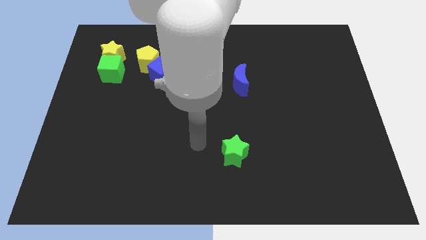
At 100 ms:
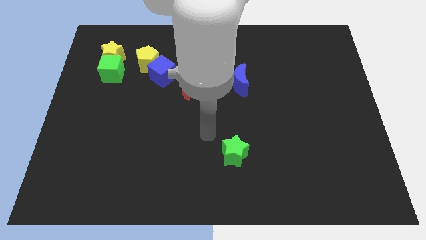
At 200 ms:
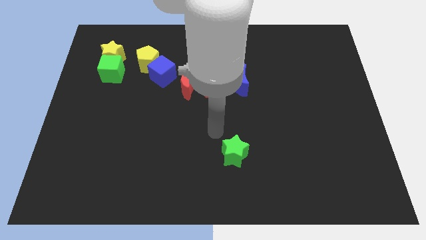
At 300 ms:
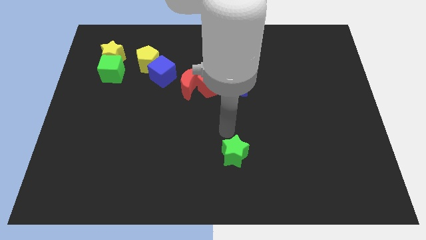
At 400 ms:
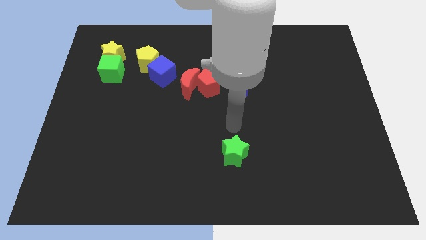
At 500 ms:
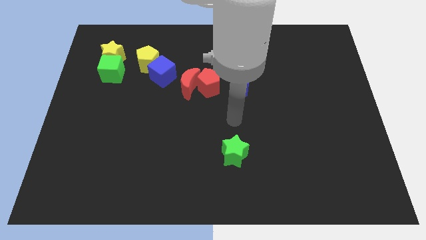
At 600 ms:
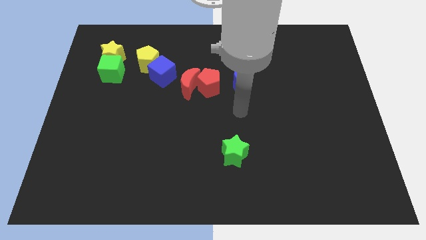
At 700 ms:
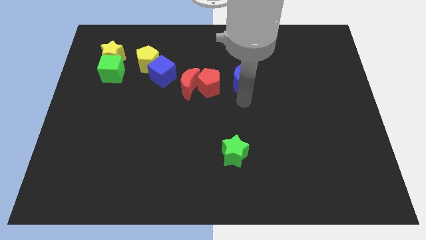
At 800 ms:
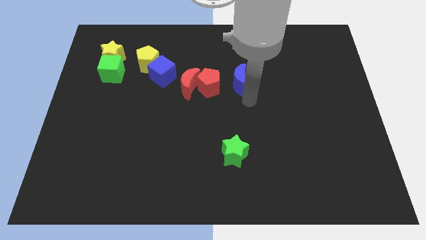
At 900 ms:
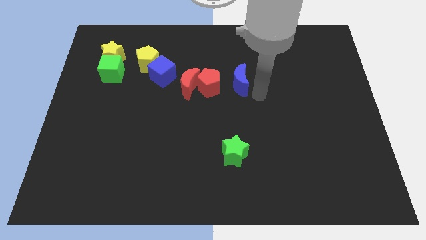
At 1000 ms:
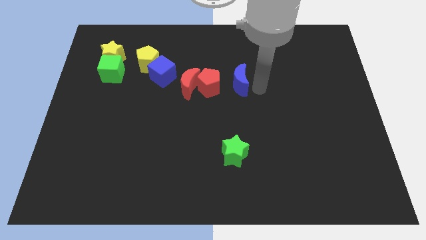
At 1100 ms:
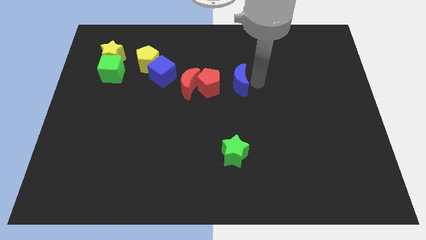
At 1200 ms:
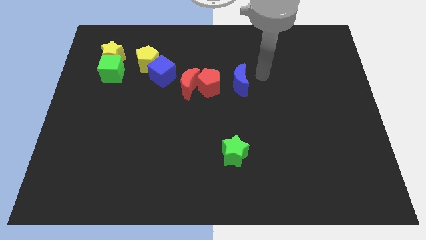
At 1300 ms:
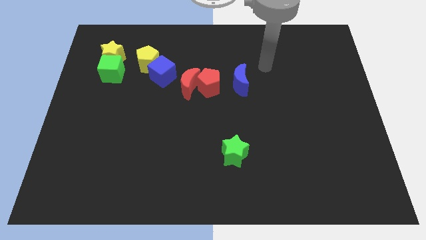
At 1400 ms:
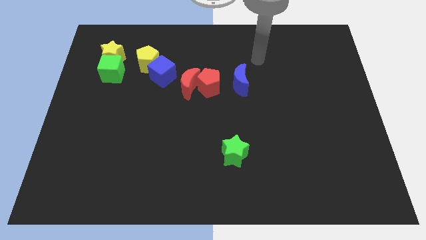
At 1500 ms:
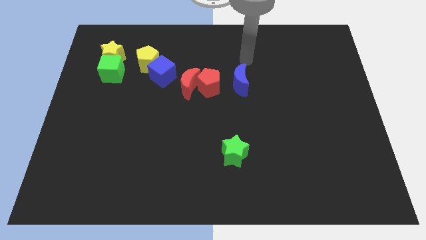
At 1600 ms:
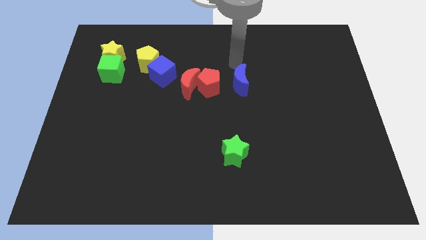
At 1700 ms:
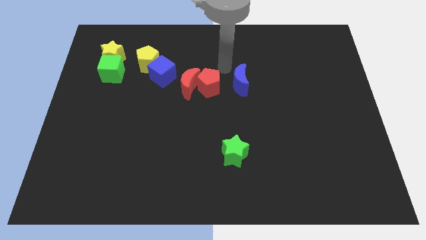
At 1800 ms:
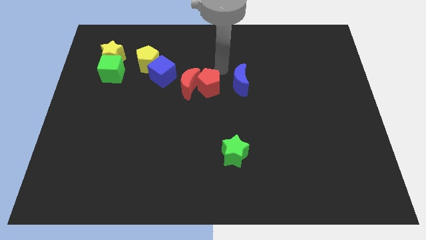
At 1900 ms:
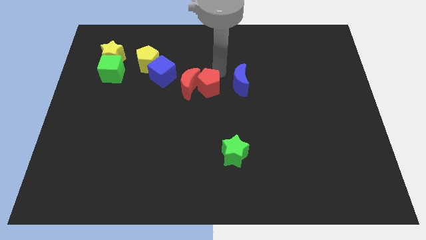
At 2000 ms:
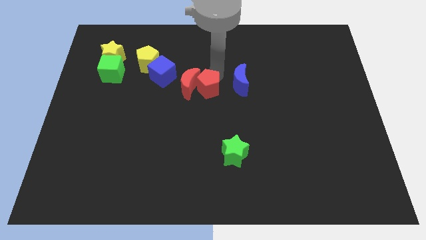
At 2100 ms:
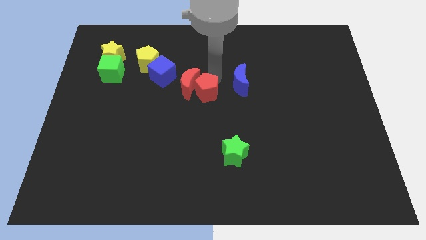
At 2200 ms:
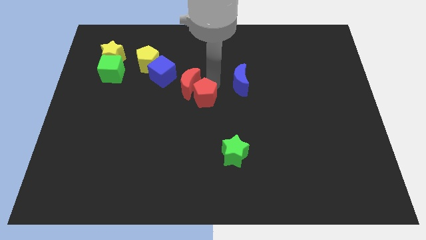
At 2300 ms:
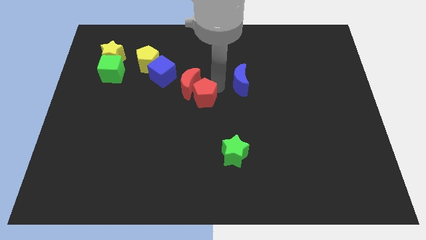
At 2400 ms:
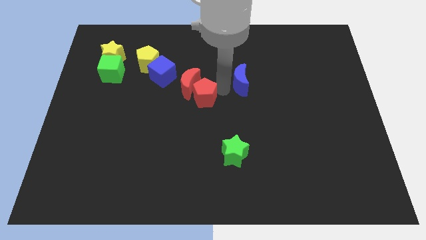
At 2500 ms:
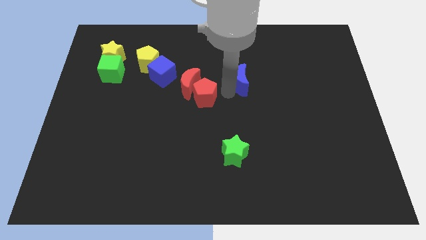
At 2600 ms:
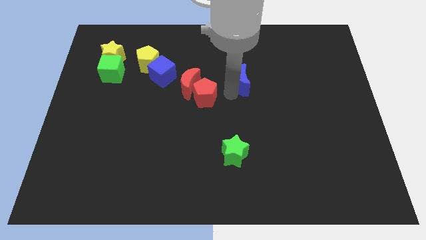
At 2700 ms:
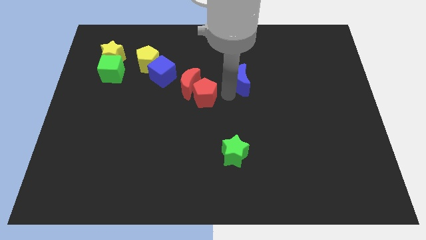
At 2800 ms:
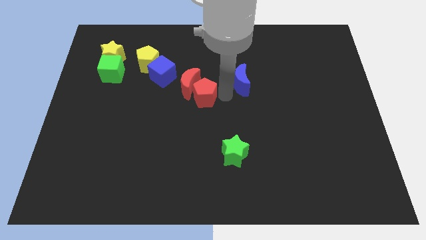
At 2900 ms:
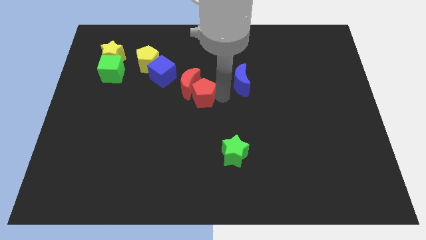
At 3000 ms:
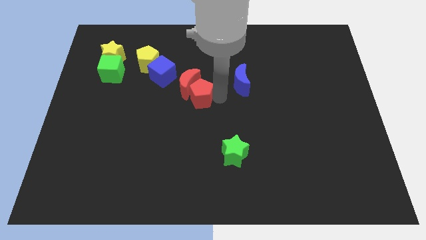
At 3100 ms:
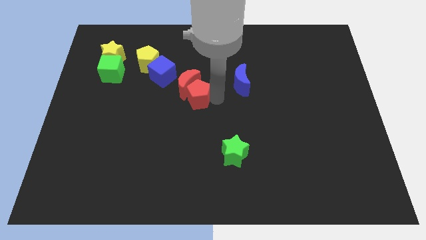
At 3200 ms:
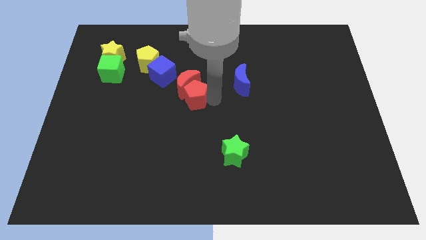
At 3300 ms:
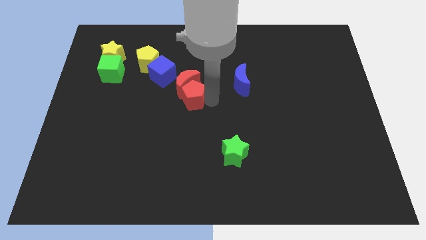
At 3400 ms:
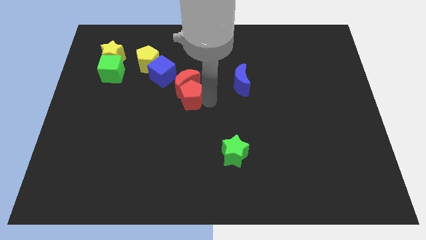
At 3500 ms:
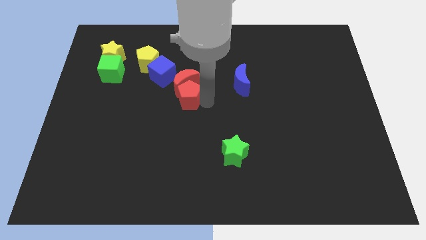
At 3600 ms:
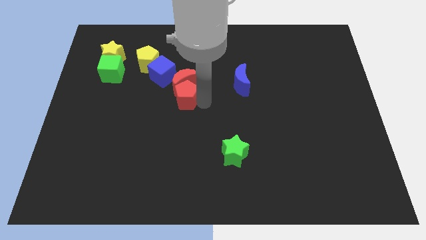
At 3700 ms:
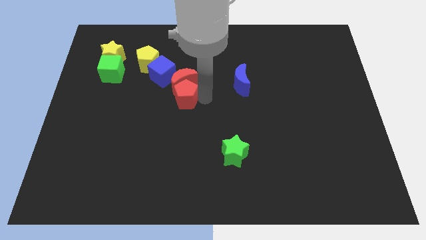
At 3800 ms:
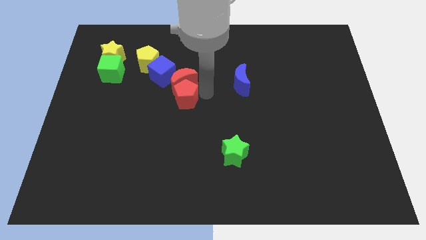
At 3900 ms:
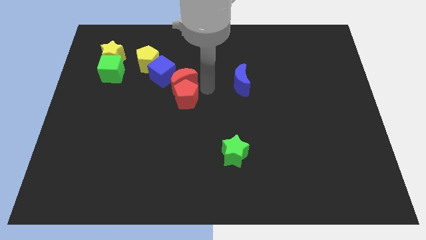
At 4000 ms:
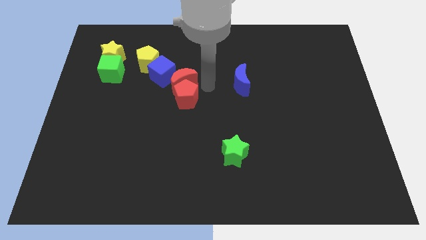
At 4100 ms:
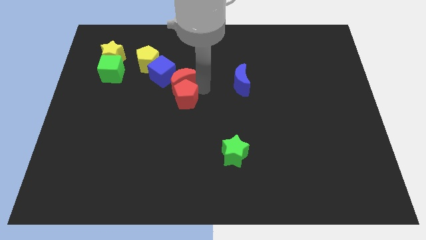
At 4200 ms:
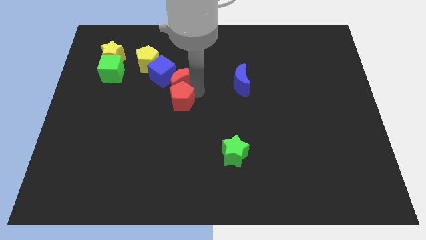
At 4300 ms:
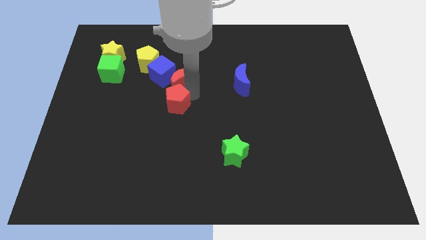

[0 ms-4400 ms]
move the red pentagon away from the red moon and blue moon

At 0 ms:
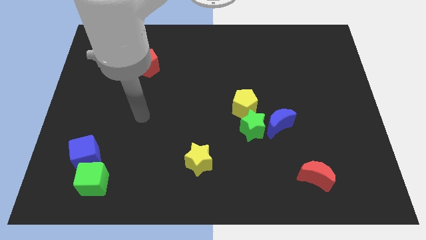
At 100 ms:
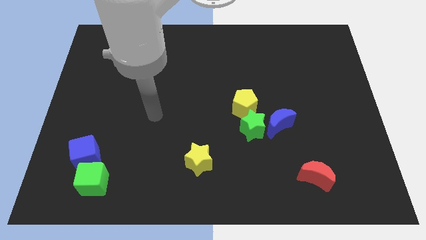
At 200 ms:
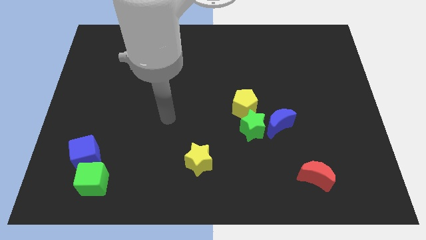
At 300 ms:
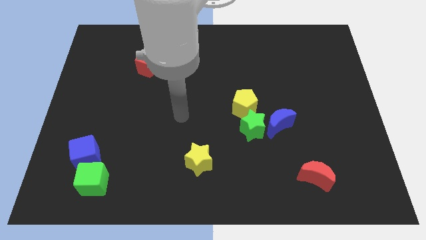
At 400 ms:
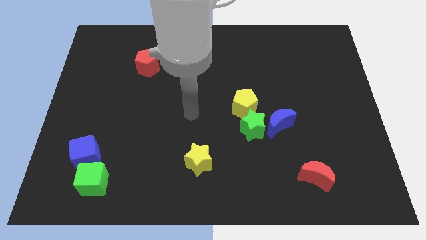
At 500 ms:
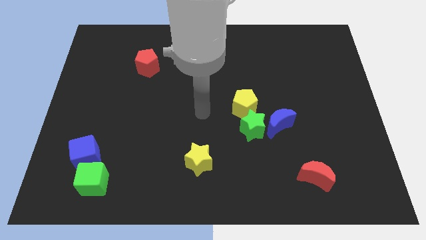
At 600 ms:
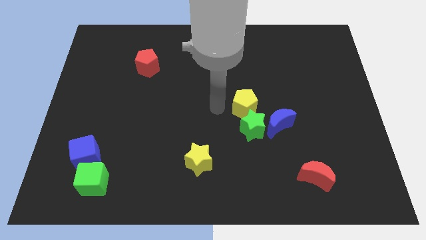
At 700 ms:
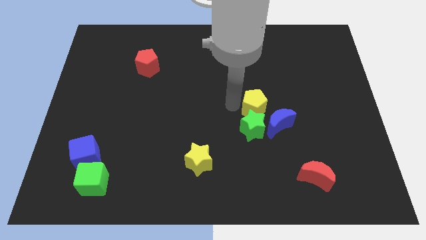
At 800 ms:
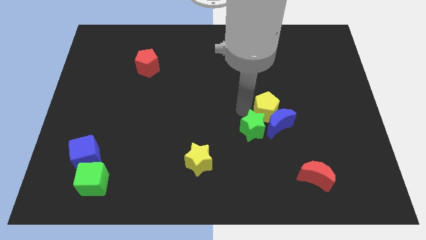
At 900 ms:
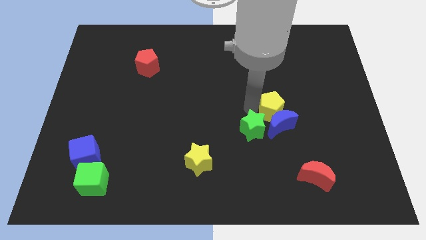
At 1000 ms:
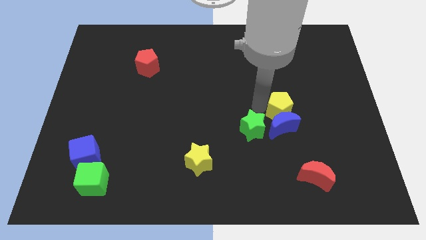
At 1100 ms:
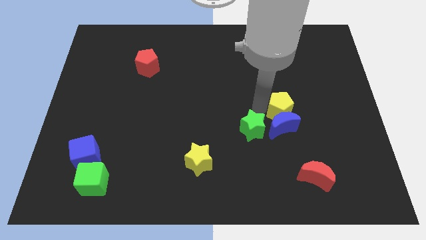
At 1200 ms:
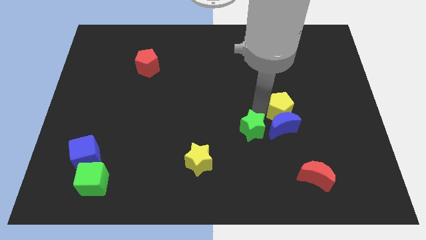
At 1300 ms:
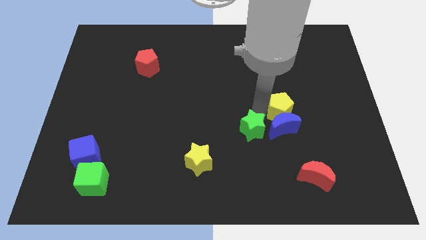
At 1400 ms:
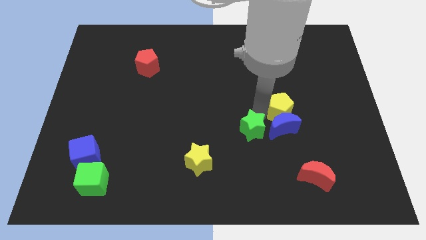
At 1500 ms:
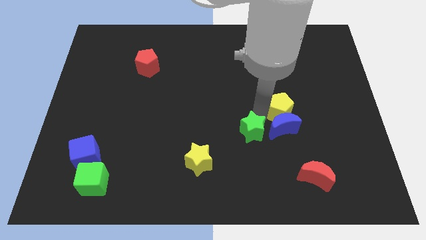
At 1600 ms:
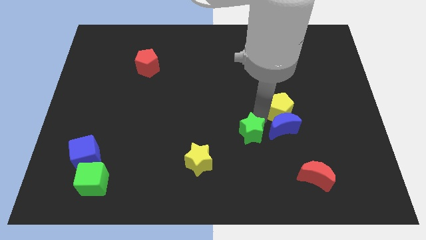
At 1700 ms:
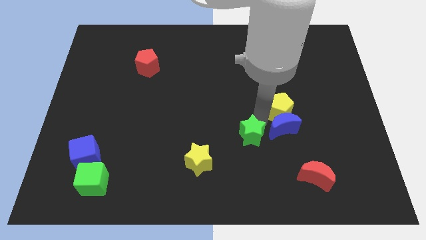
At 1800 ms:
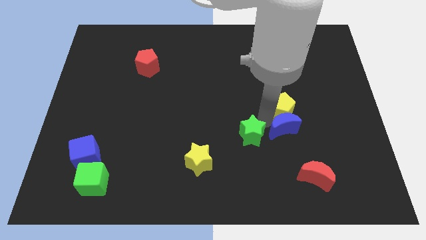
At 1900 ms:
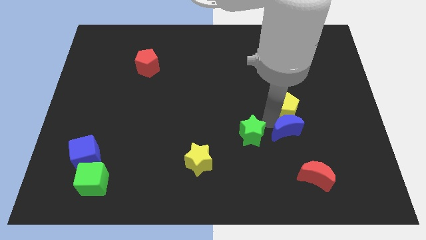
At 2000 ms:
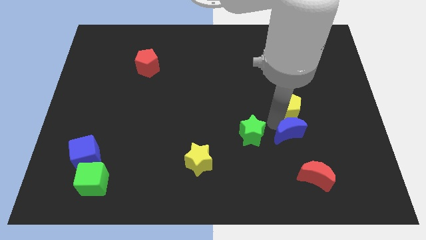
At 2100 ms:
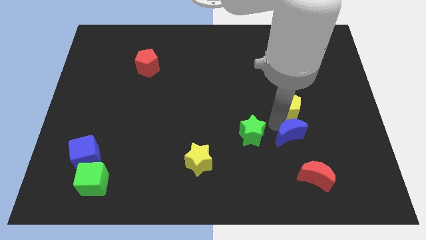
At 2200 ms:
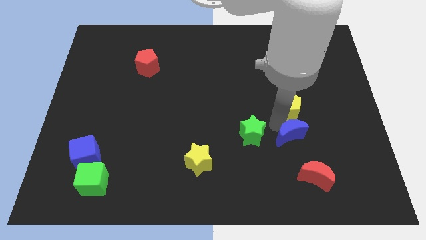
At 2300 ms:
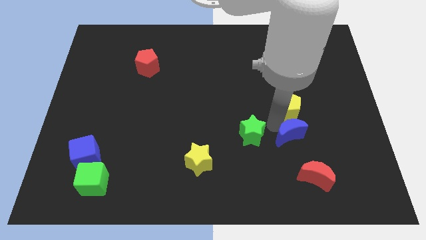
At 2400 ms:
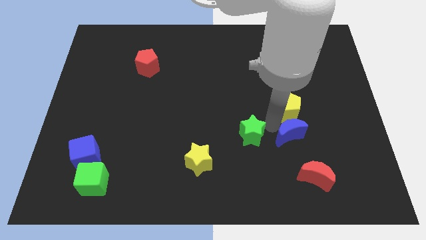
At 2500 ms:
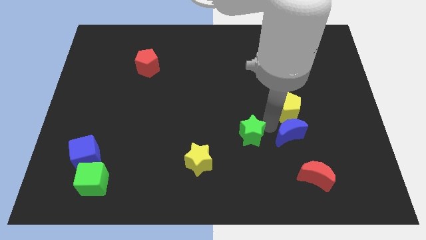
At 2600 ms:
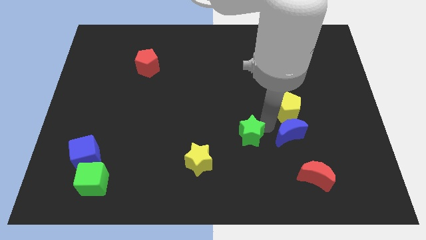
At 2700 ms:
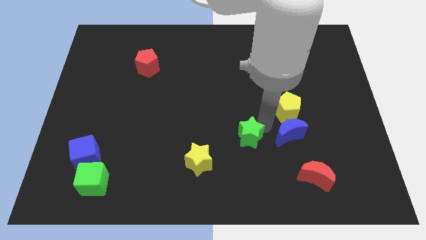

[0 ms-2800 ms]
separate the green star from the yellow pentagon and blue moon

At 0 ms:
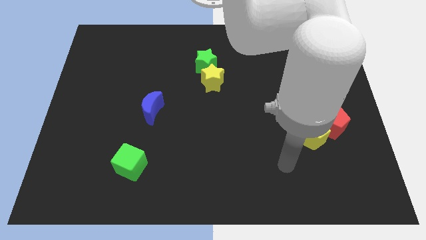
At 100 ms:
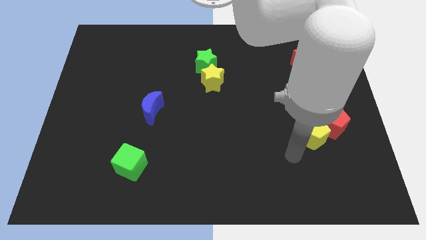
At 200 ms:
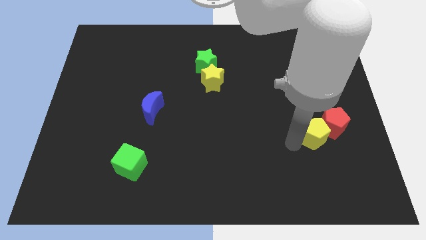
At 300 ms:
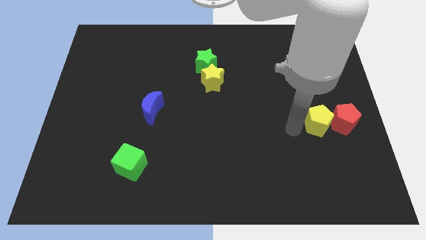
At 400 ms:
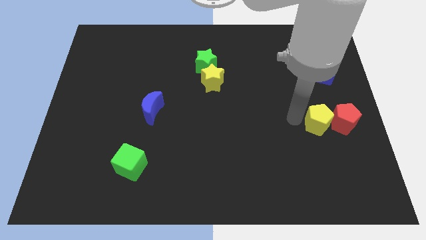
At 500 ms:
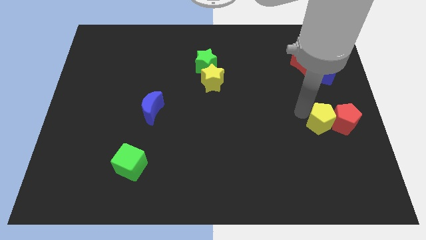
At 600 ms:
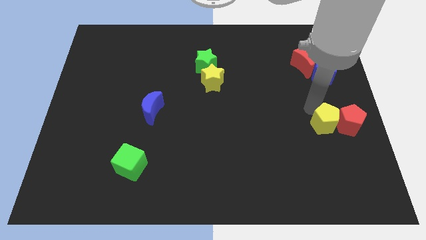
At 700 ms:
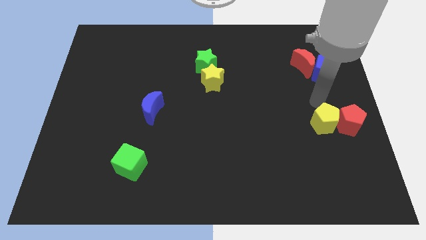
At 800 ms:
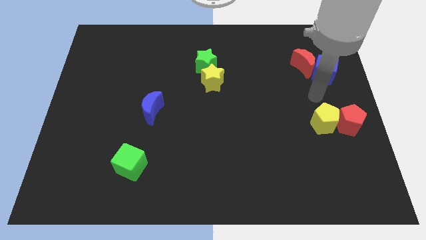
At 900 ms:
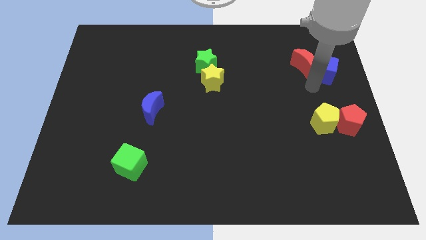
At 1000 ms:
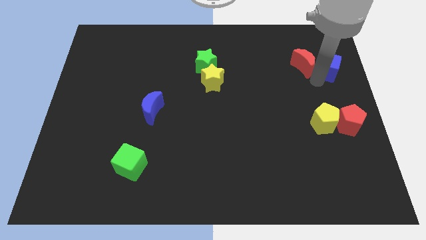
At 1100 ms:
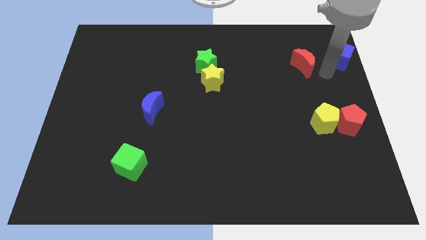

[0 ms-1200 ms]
move the red moon away from the blue cube

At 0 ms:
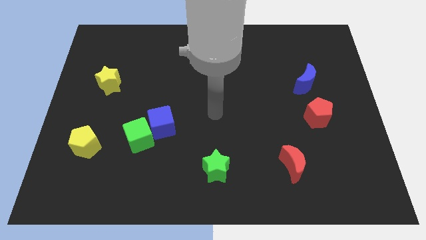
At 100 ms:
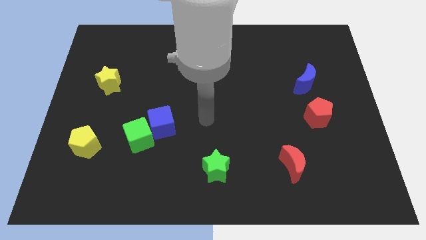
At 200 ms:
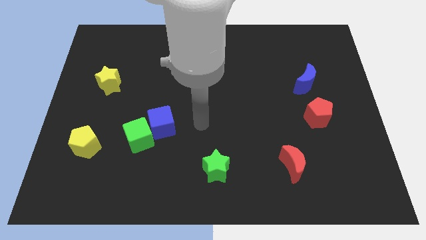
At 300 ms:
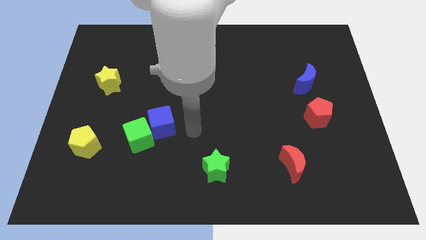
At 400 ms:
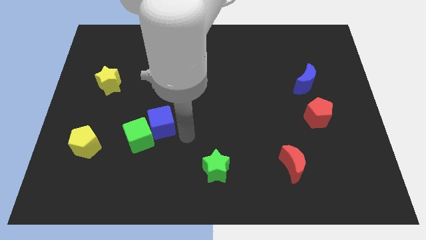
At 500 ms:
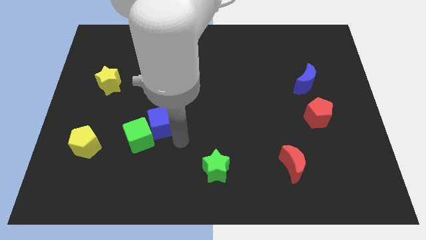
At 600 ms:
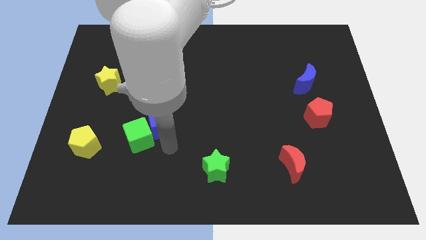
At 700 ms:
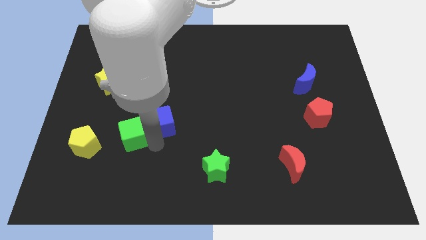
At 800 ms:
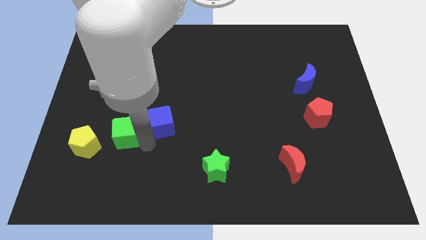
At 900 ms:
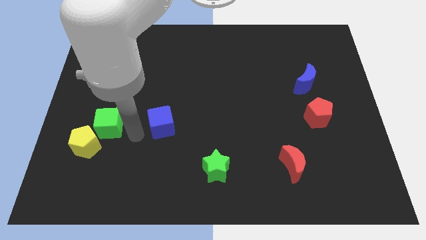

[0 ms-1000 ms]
separate the blue cube from the green cube
